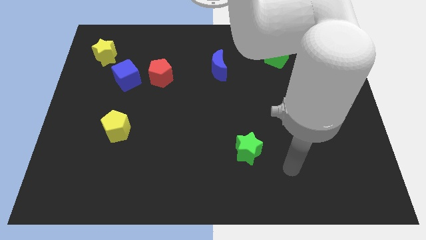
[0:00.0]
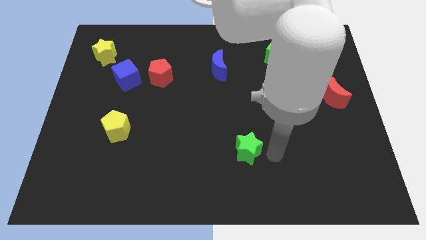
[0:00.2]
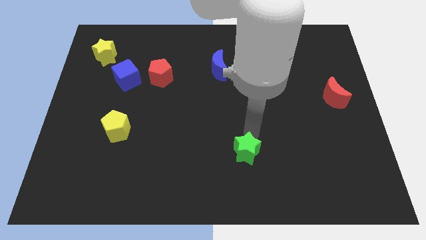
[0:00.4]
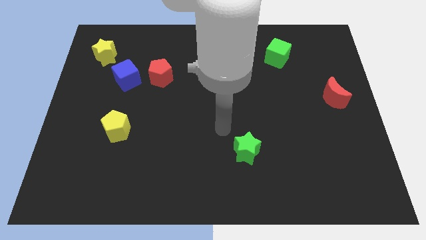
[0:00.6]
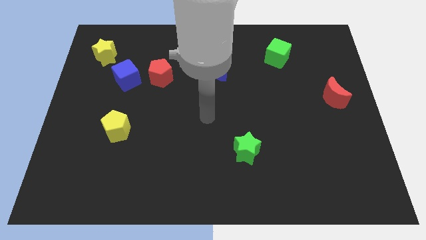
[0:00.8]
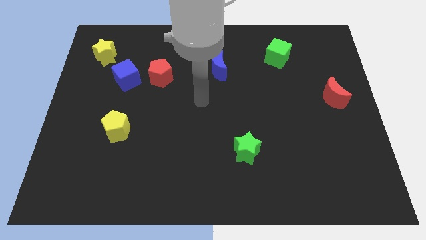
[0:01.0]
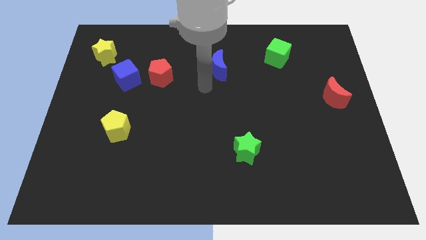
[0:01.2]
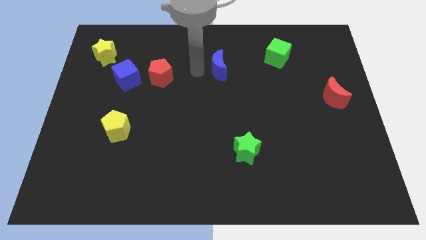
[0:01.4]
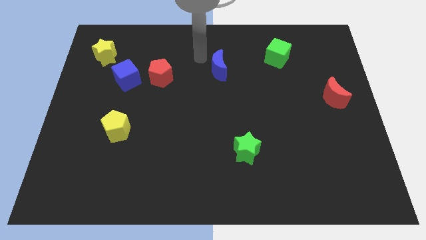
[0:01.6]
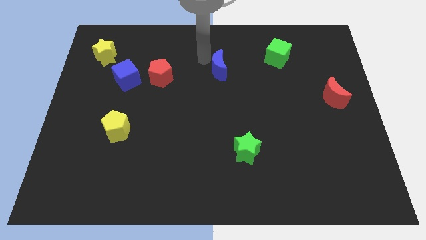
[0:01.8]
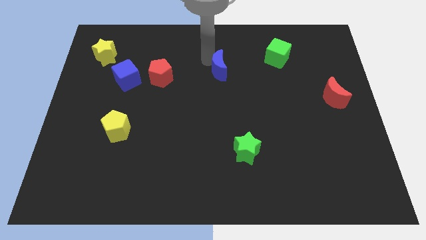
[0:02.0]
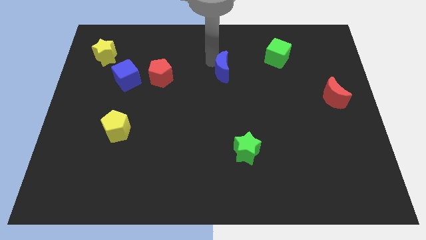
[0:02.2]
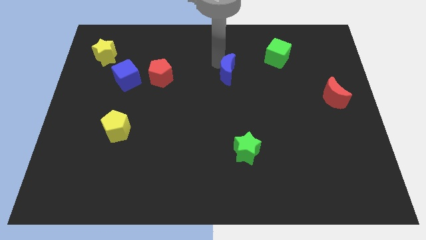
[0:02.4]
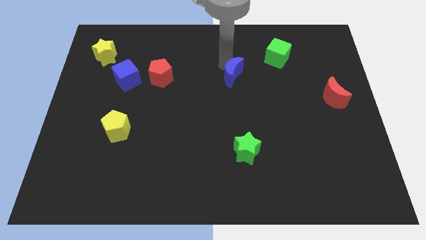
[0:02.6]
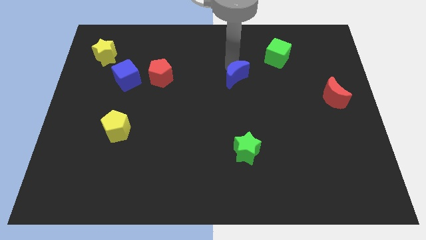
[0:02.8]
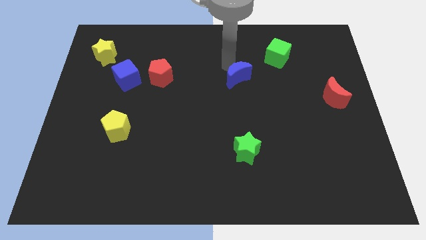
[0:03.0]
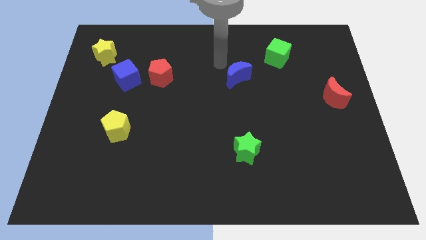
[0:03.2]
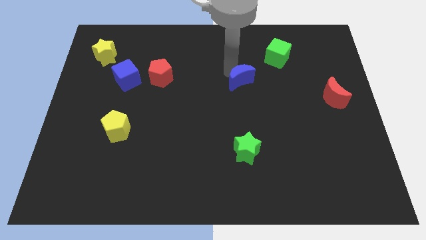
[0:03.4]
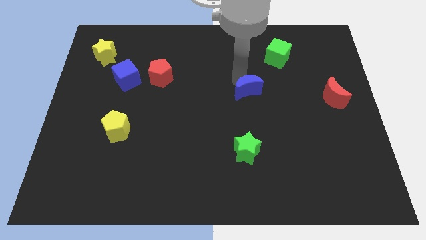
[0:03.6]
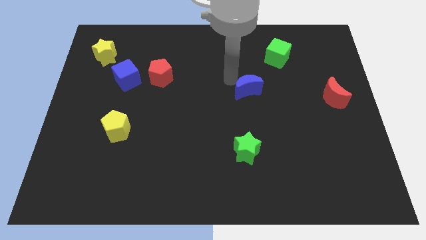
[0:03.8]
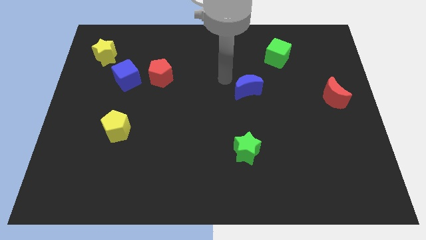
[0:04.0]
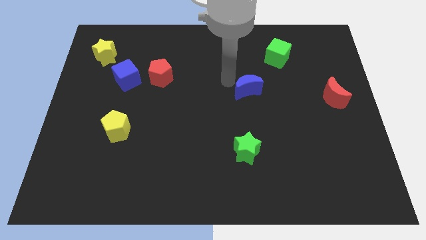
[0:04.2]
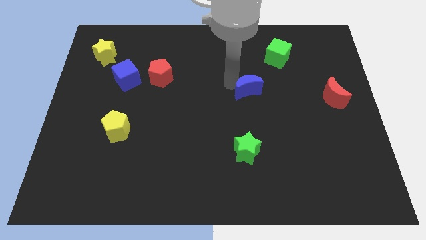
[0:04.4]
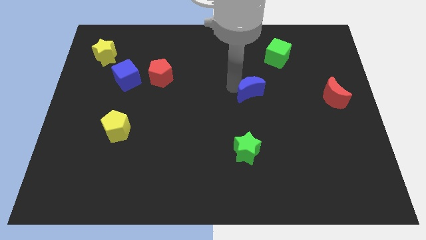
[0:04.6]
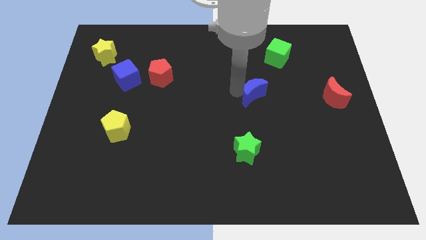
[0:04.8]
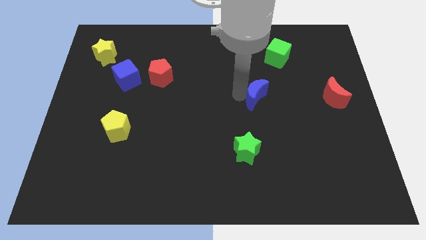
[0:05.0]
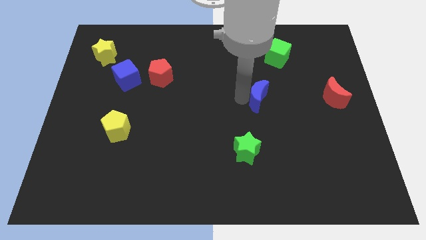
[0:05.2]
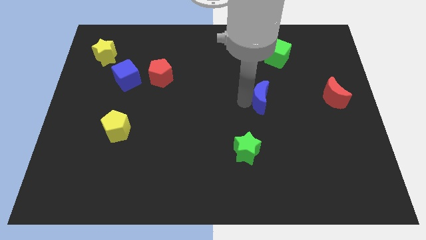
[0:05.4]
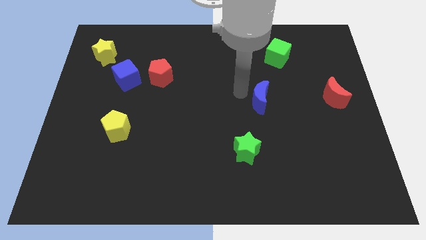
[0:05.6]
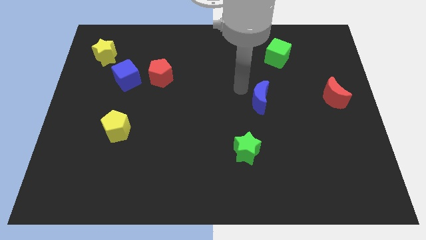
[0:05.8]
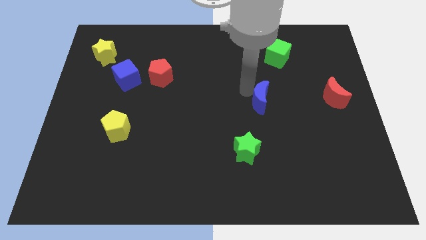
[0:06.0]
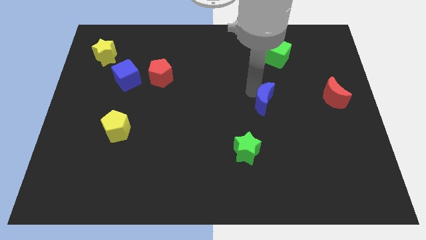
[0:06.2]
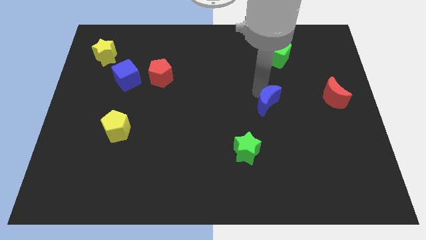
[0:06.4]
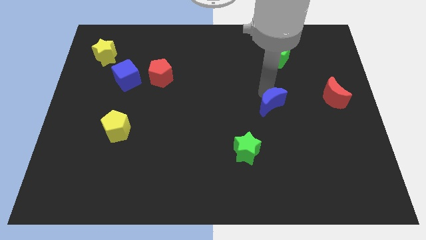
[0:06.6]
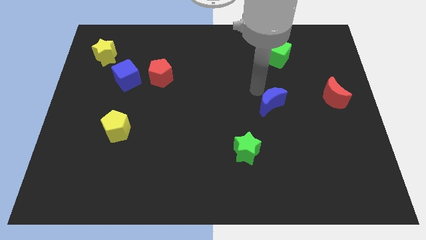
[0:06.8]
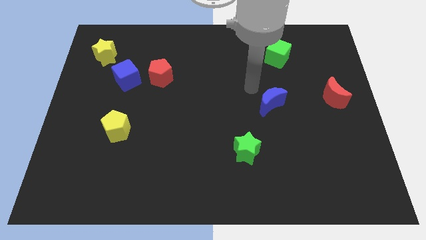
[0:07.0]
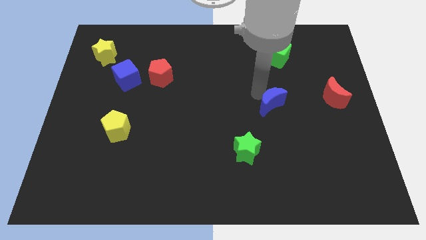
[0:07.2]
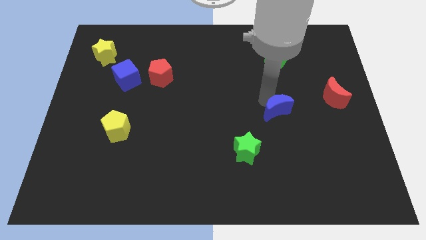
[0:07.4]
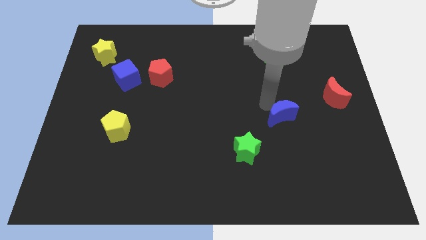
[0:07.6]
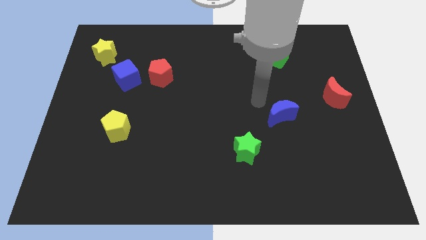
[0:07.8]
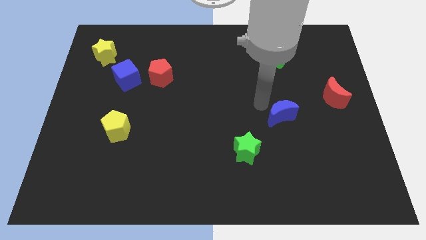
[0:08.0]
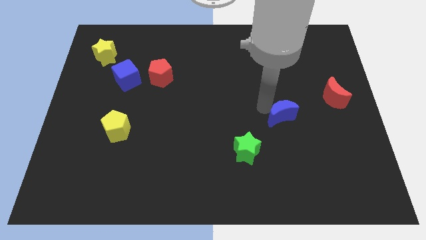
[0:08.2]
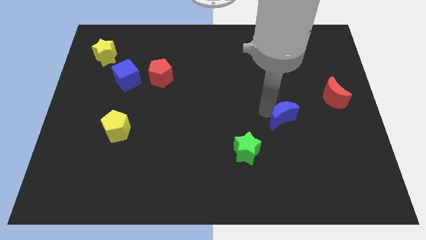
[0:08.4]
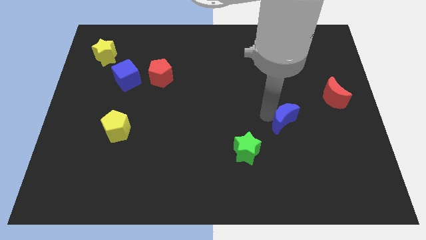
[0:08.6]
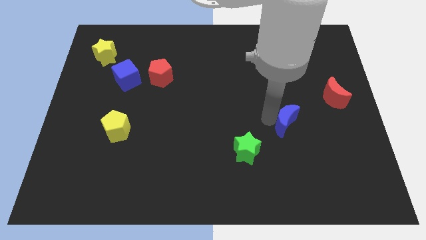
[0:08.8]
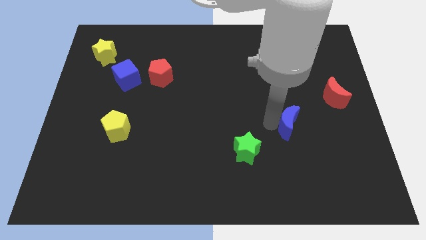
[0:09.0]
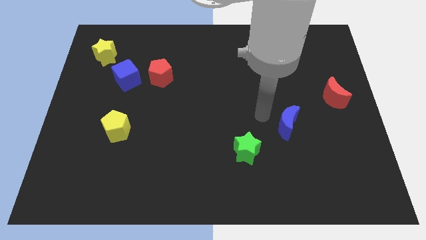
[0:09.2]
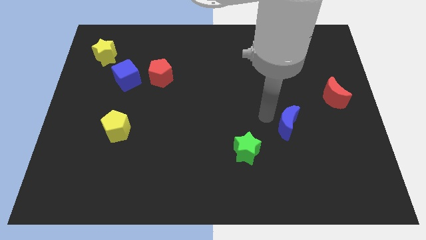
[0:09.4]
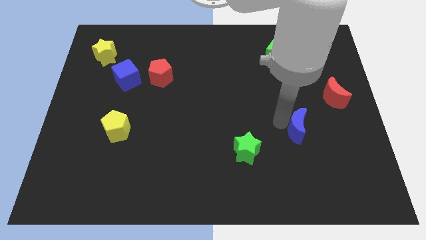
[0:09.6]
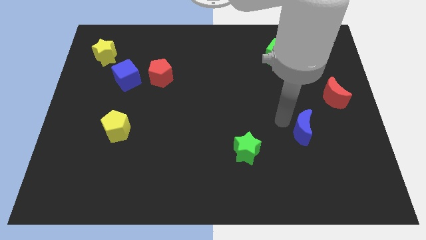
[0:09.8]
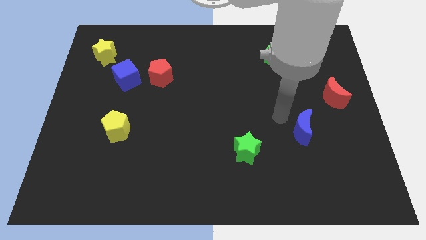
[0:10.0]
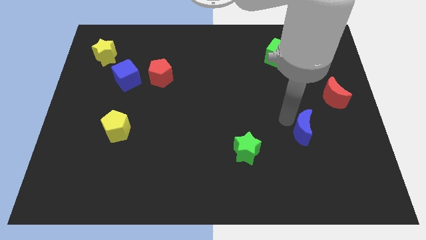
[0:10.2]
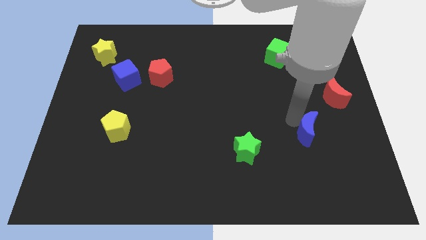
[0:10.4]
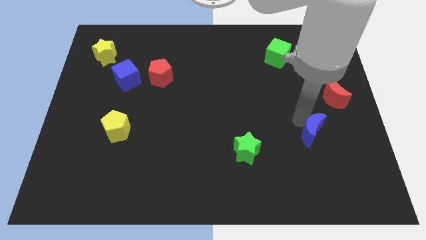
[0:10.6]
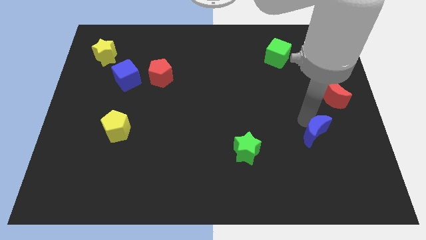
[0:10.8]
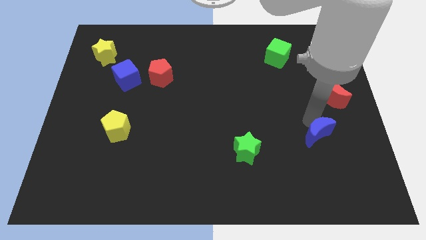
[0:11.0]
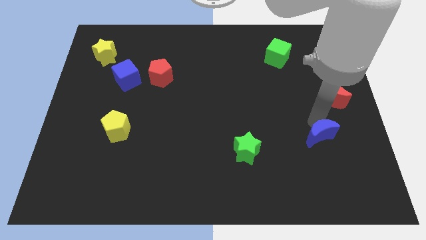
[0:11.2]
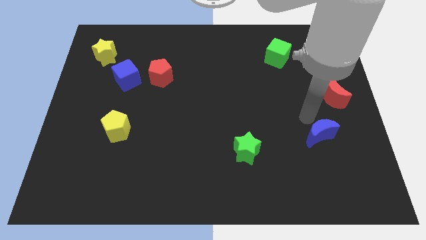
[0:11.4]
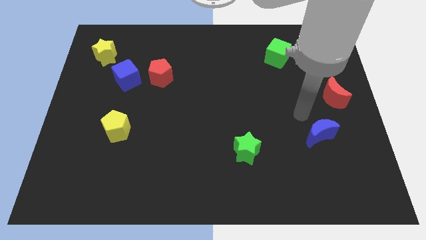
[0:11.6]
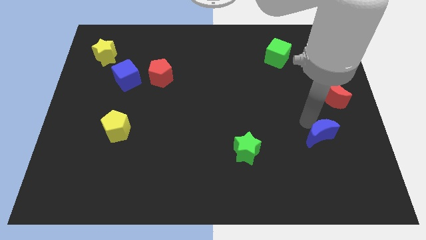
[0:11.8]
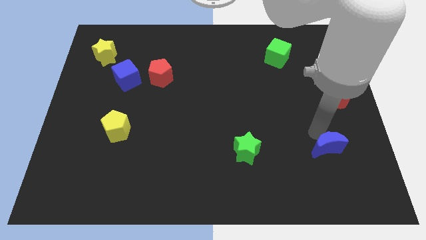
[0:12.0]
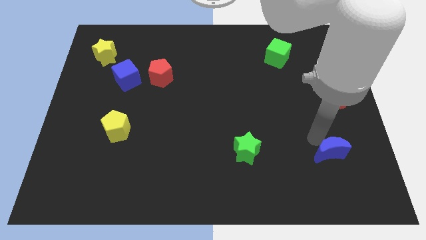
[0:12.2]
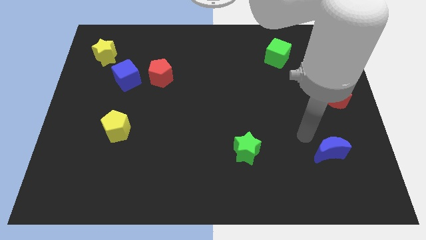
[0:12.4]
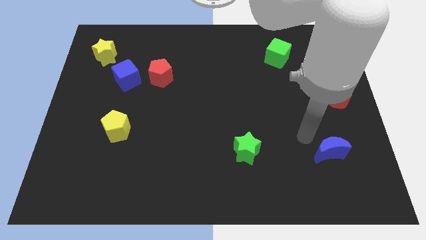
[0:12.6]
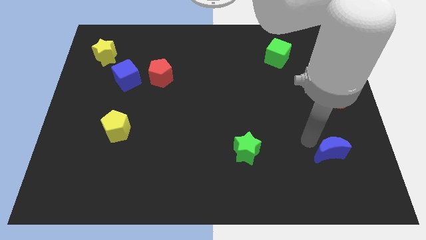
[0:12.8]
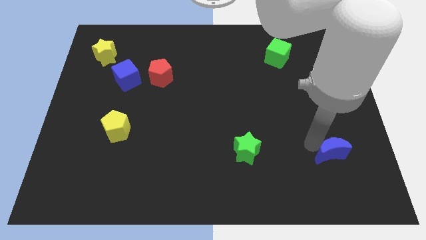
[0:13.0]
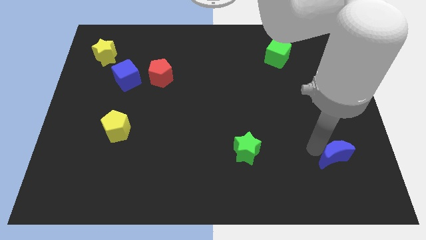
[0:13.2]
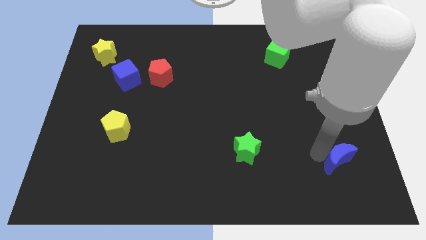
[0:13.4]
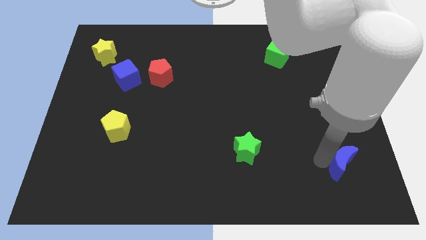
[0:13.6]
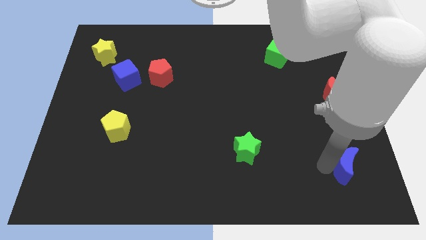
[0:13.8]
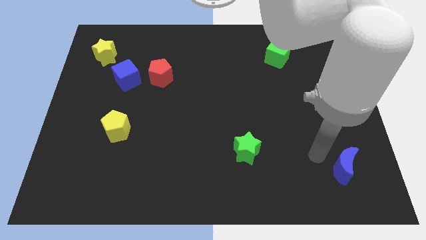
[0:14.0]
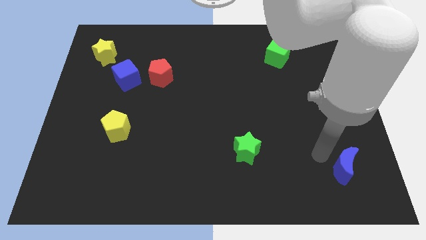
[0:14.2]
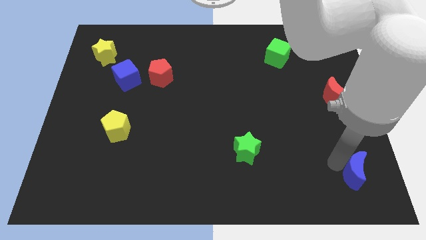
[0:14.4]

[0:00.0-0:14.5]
move the blue moon to the lower right corner
